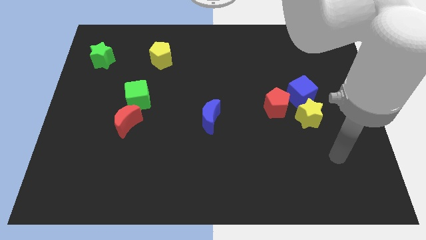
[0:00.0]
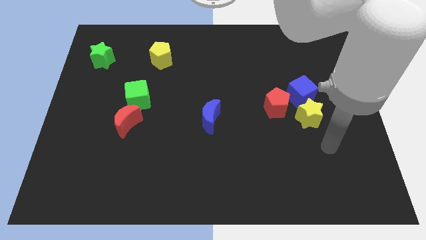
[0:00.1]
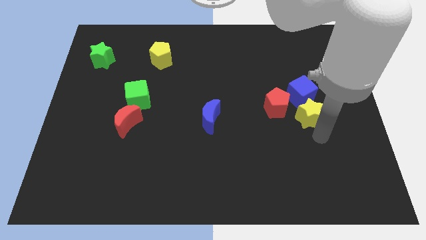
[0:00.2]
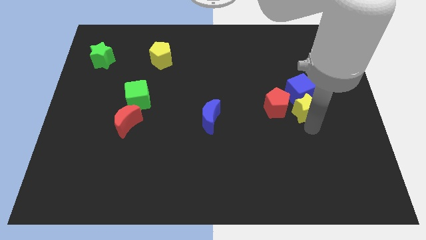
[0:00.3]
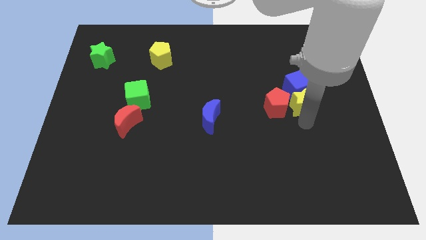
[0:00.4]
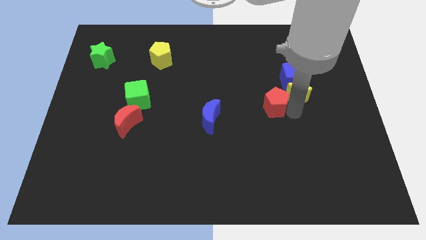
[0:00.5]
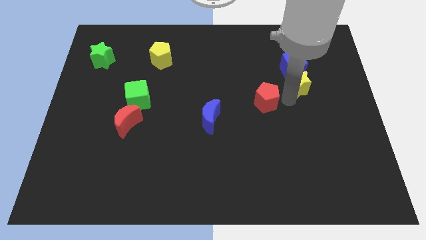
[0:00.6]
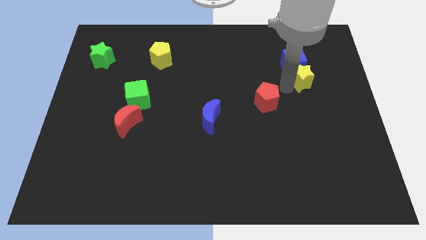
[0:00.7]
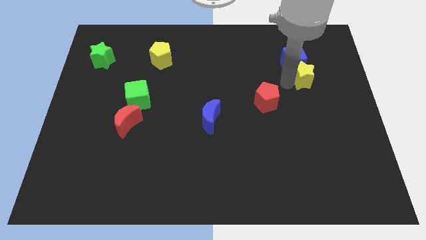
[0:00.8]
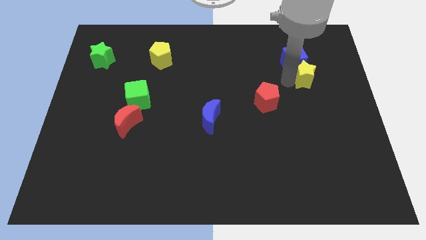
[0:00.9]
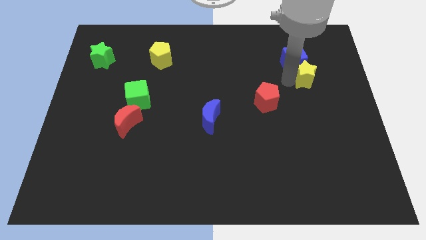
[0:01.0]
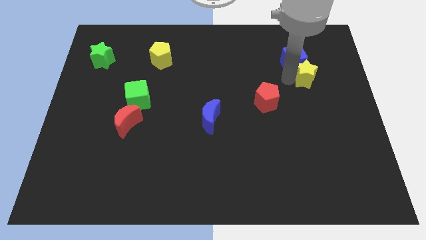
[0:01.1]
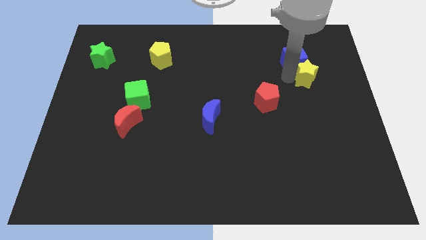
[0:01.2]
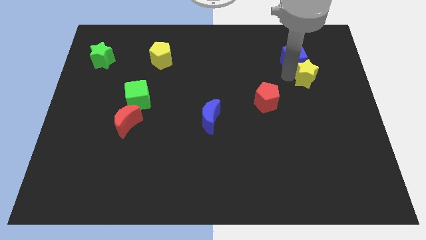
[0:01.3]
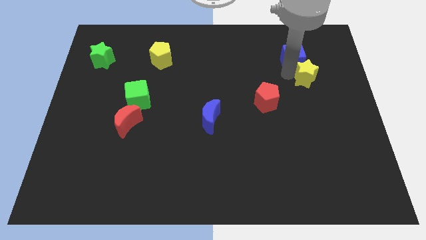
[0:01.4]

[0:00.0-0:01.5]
separate the blue cube from the yellow star and red pentagon

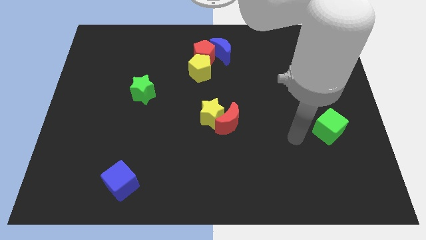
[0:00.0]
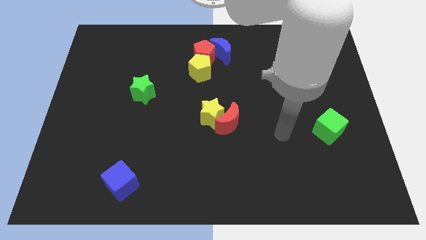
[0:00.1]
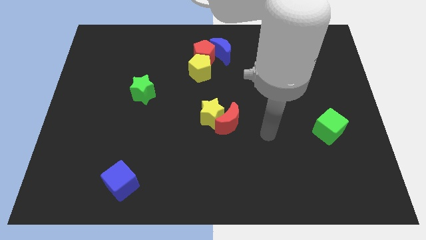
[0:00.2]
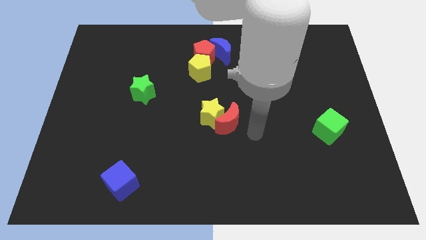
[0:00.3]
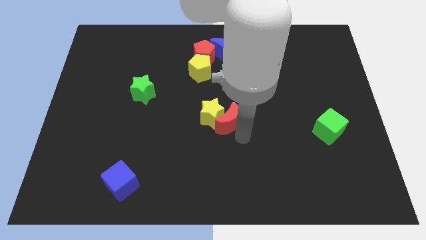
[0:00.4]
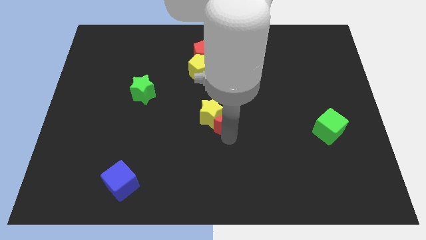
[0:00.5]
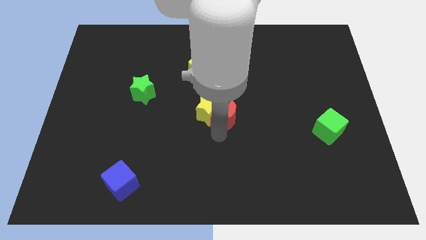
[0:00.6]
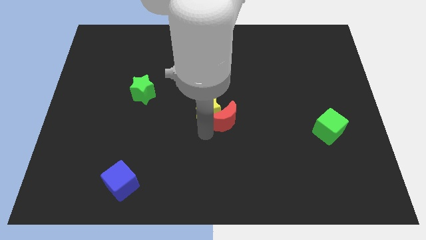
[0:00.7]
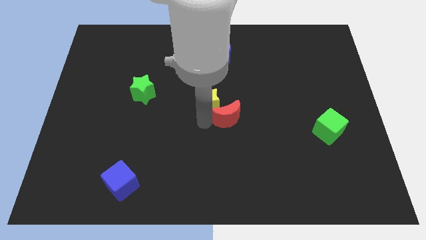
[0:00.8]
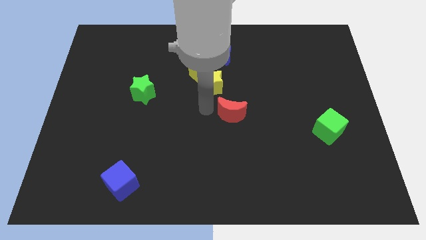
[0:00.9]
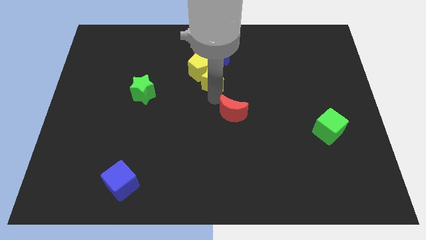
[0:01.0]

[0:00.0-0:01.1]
pull the red moon apart from the yellow star

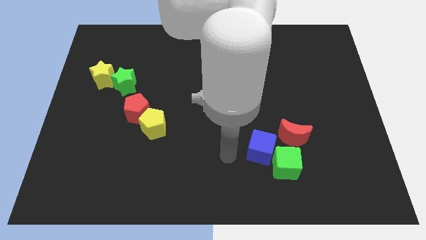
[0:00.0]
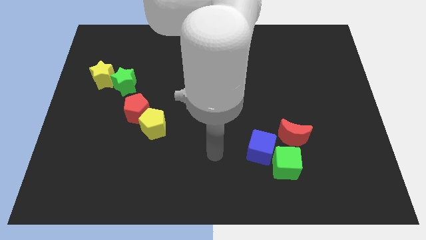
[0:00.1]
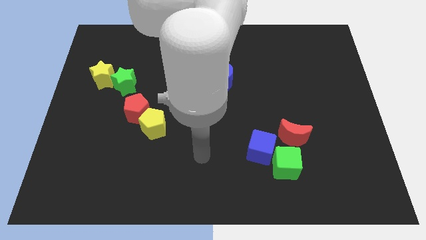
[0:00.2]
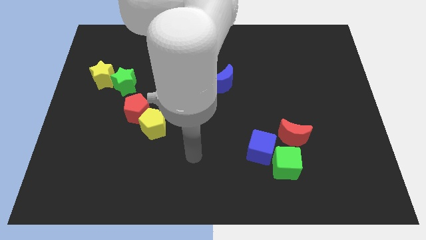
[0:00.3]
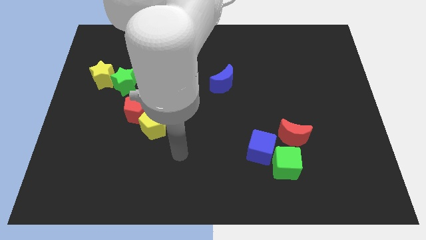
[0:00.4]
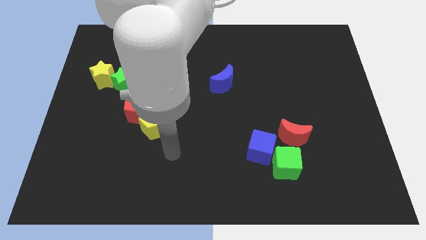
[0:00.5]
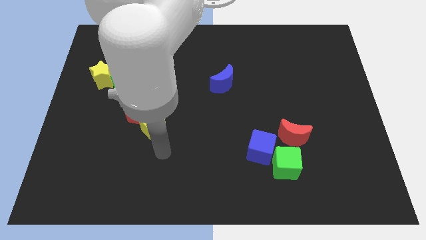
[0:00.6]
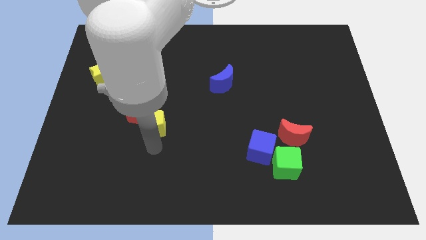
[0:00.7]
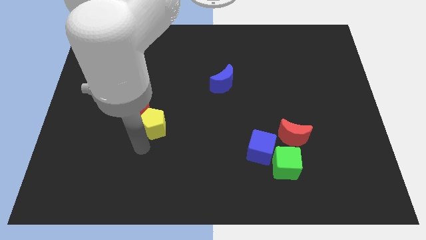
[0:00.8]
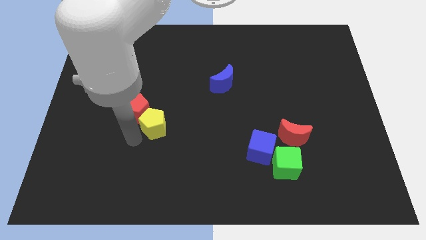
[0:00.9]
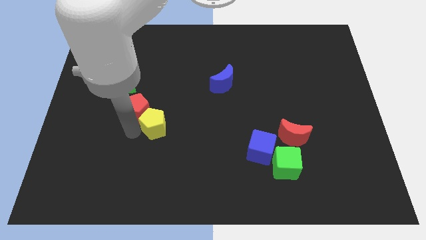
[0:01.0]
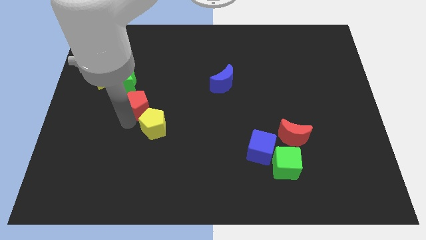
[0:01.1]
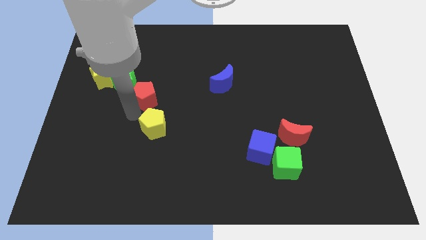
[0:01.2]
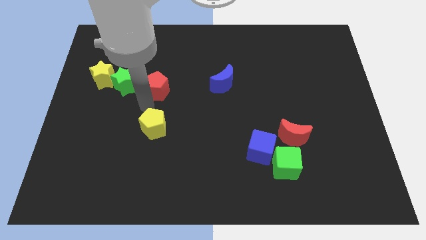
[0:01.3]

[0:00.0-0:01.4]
pull the yellow pentagon apart from the red pentagon

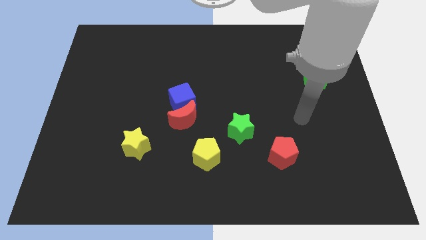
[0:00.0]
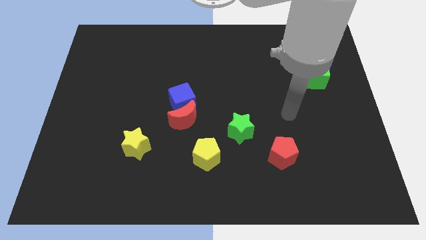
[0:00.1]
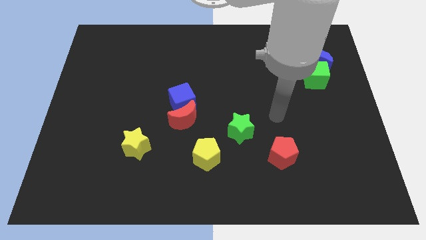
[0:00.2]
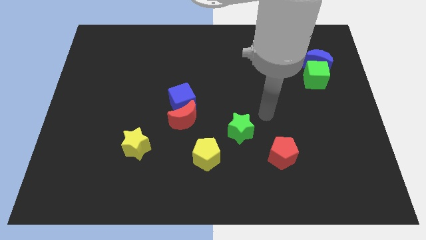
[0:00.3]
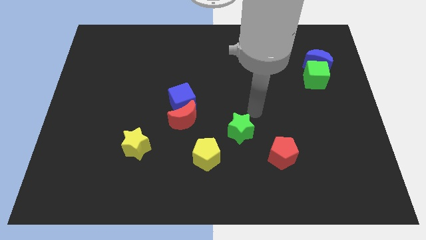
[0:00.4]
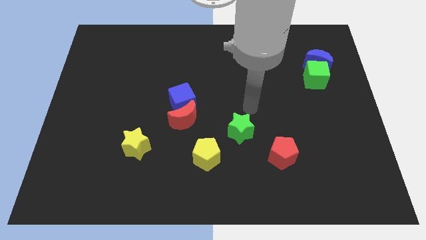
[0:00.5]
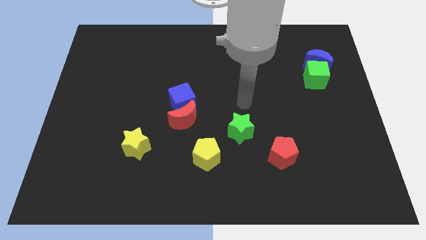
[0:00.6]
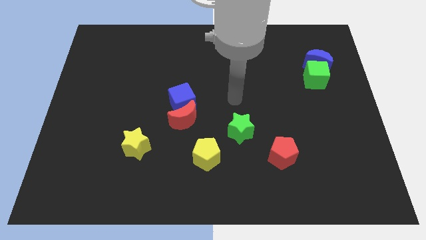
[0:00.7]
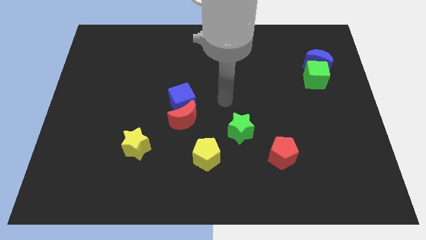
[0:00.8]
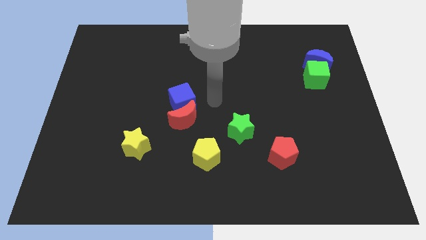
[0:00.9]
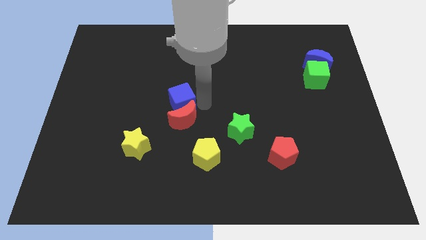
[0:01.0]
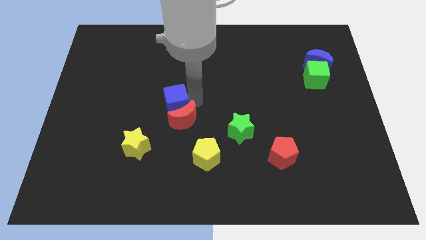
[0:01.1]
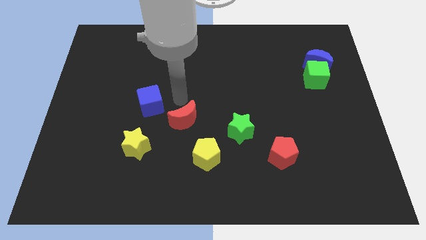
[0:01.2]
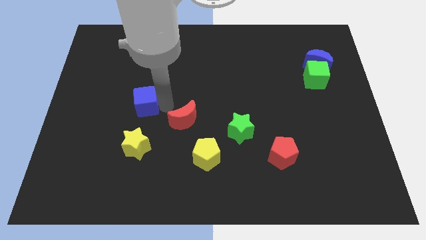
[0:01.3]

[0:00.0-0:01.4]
move the red moon away from the blue cube

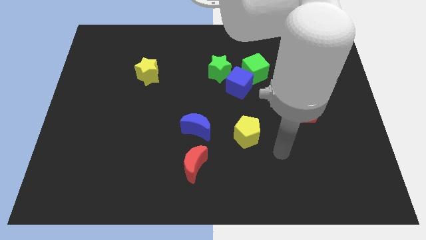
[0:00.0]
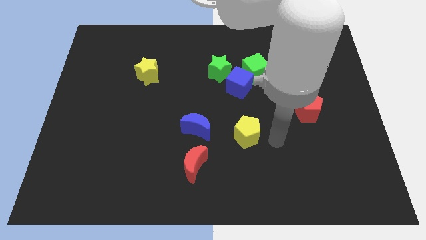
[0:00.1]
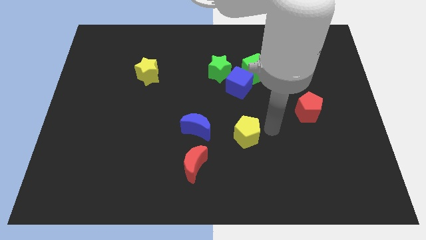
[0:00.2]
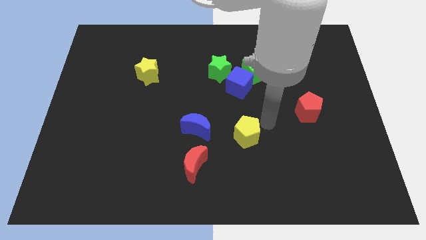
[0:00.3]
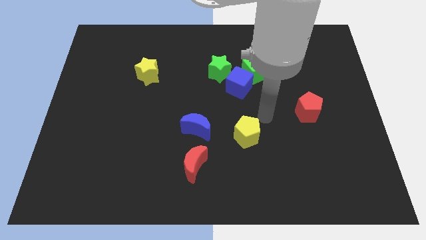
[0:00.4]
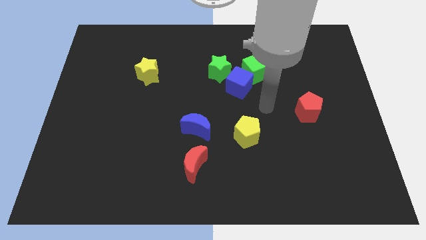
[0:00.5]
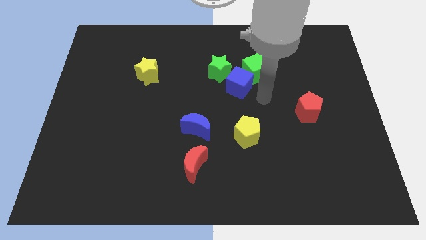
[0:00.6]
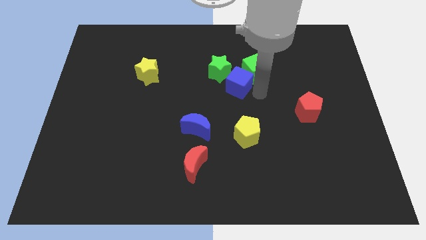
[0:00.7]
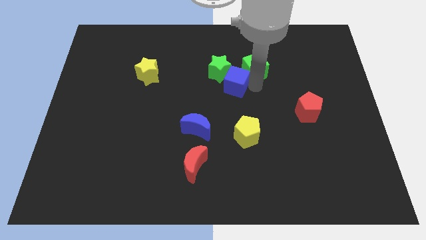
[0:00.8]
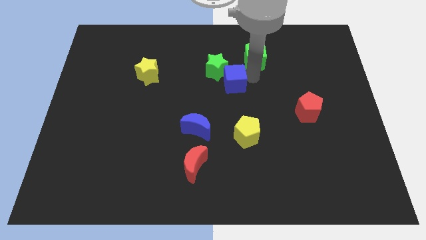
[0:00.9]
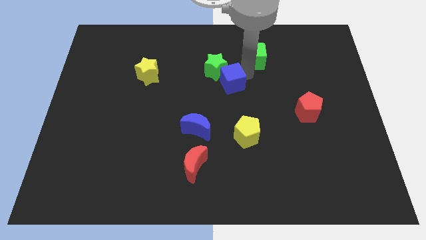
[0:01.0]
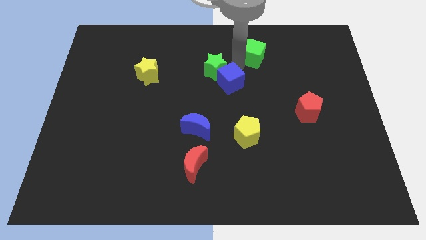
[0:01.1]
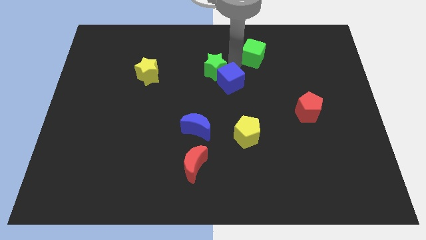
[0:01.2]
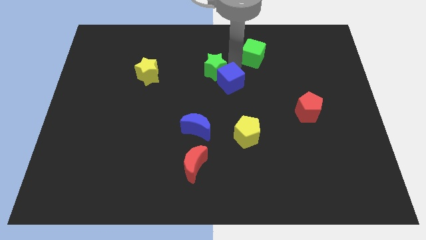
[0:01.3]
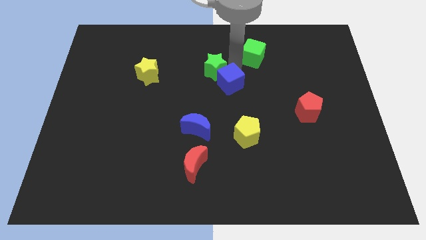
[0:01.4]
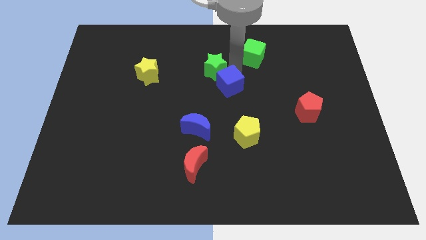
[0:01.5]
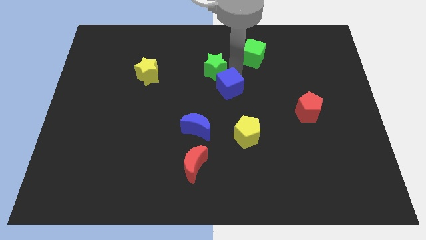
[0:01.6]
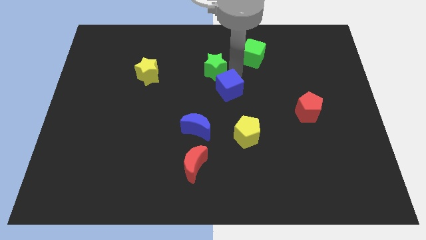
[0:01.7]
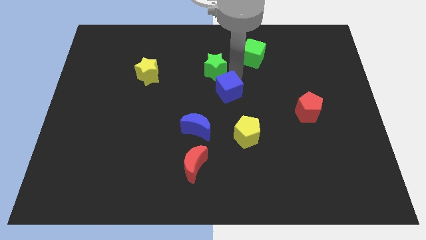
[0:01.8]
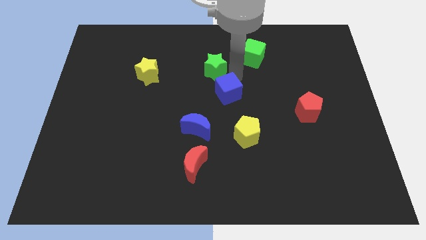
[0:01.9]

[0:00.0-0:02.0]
separate the blue cube from the green cube and green star

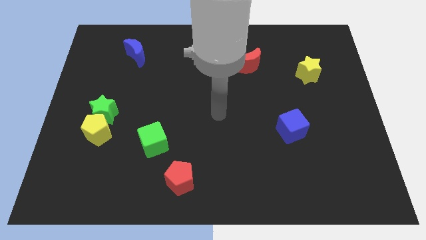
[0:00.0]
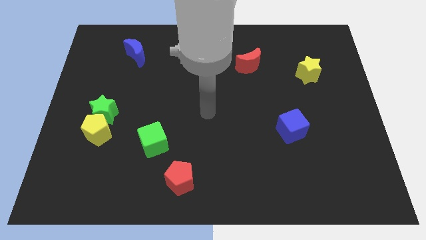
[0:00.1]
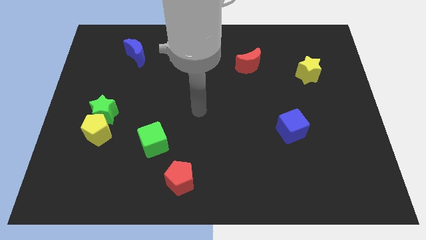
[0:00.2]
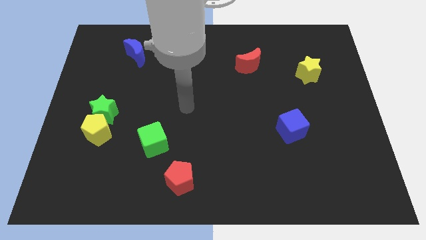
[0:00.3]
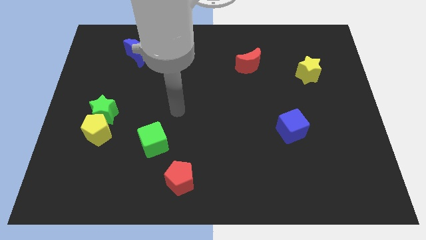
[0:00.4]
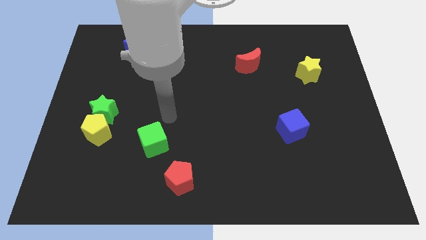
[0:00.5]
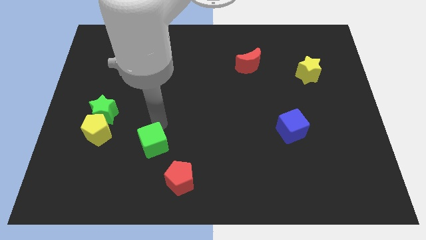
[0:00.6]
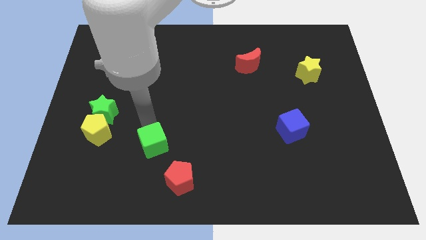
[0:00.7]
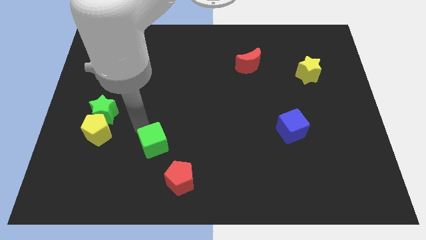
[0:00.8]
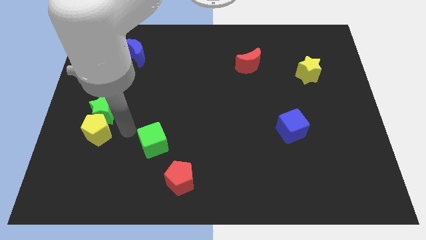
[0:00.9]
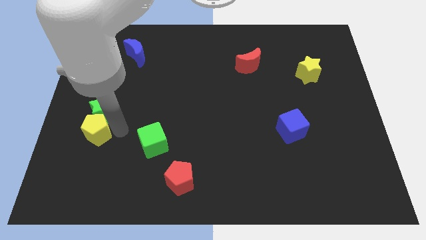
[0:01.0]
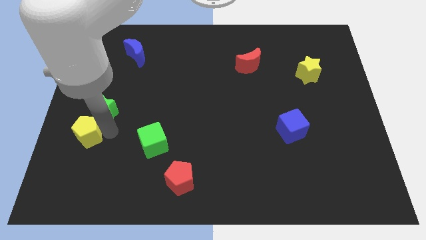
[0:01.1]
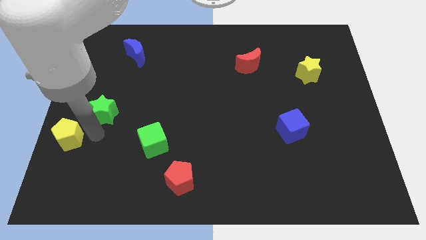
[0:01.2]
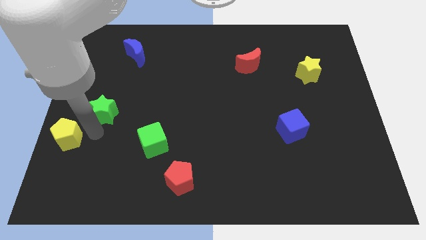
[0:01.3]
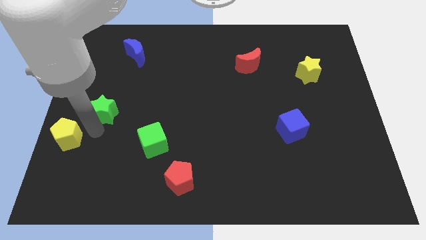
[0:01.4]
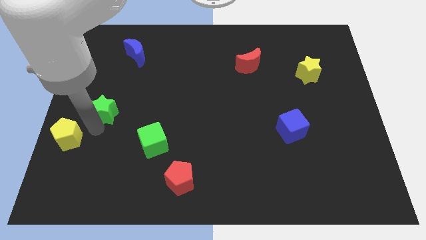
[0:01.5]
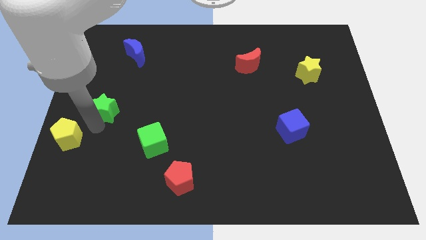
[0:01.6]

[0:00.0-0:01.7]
pull the green star apart from the yellow pentagon

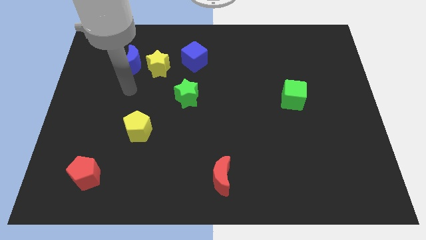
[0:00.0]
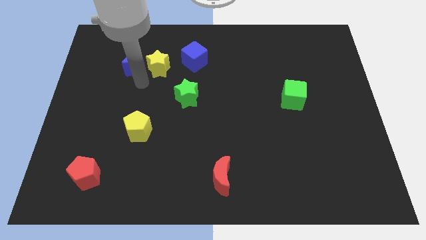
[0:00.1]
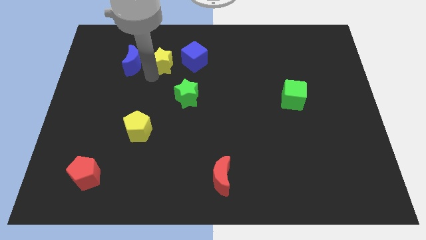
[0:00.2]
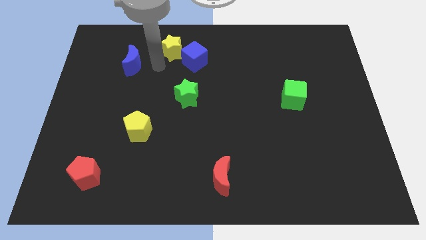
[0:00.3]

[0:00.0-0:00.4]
move the blue moon away from the yellow star
